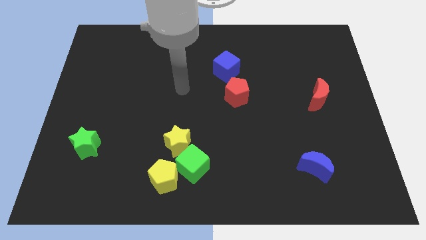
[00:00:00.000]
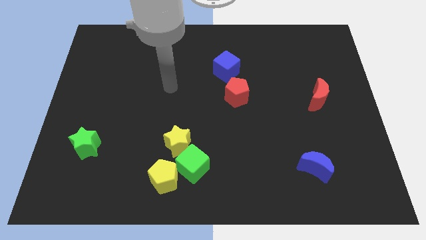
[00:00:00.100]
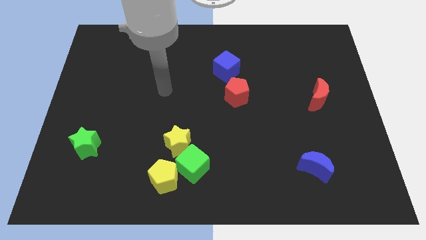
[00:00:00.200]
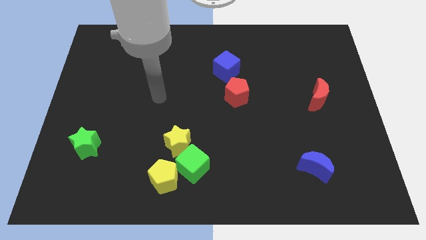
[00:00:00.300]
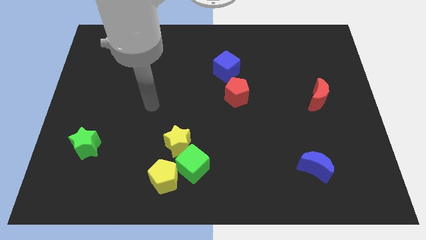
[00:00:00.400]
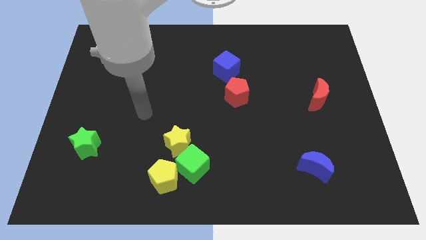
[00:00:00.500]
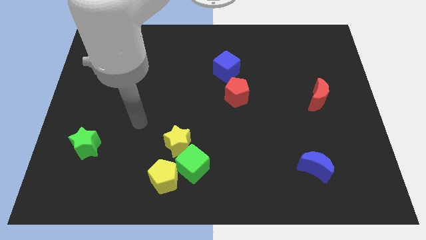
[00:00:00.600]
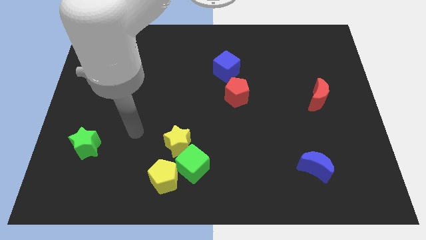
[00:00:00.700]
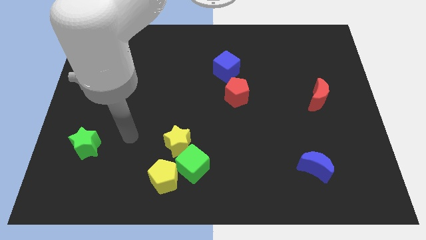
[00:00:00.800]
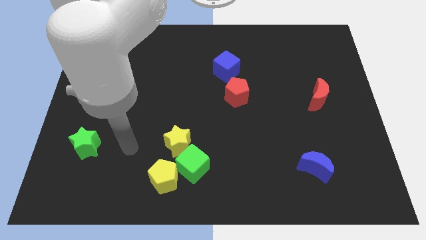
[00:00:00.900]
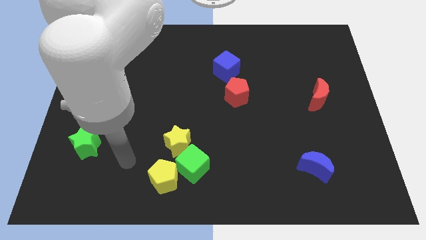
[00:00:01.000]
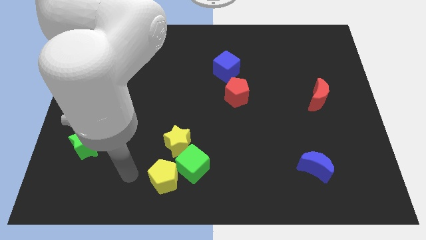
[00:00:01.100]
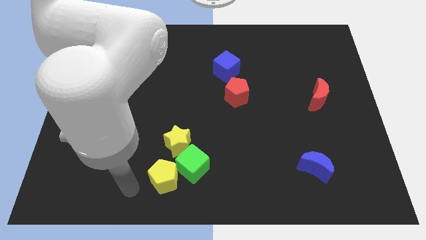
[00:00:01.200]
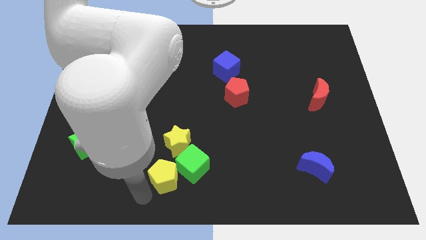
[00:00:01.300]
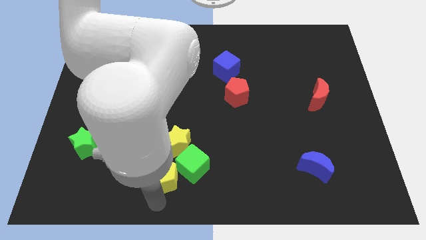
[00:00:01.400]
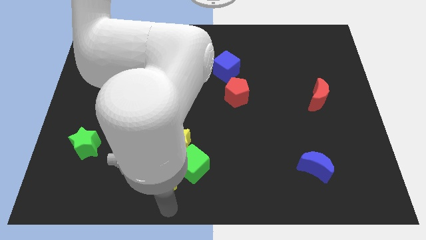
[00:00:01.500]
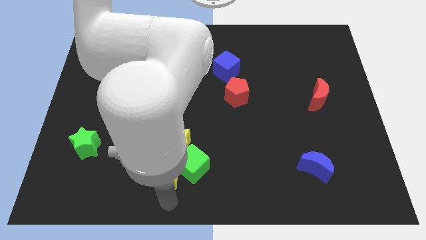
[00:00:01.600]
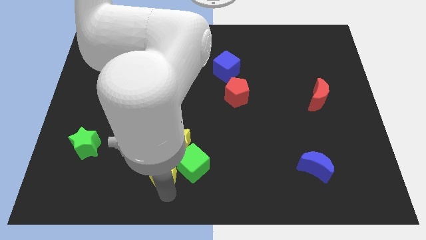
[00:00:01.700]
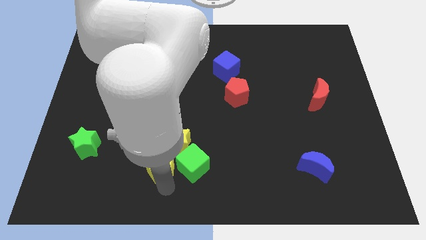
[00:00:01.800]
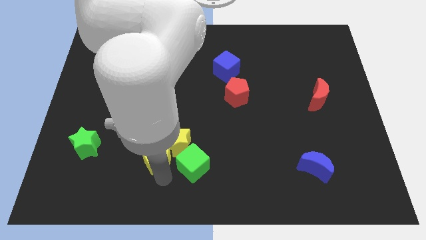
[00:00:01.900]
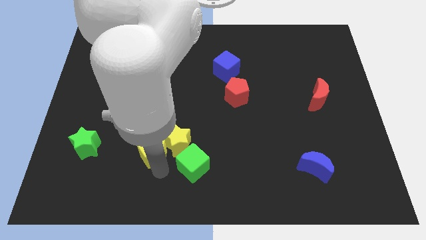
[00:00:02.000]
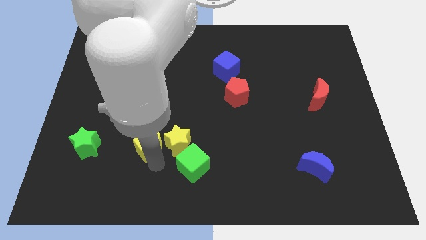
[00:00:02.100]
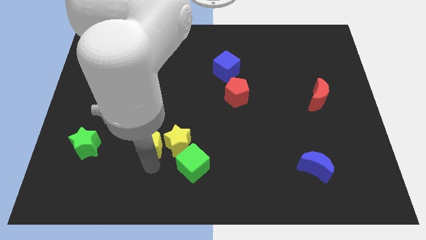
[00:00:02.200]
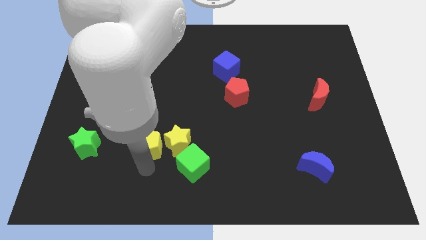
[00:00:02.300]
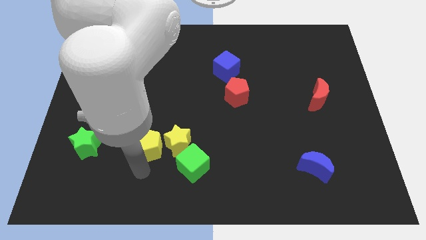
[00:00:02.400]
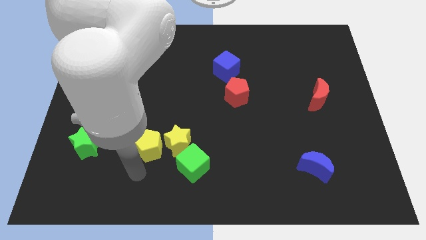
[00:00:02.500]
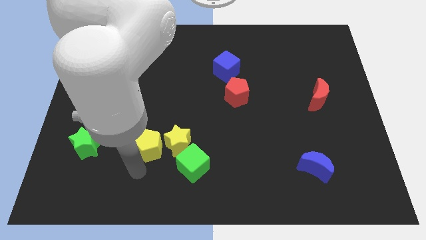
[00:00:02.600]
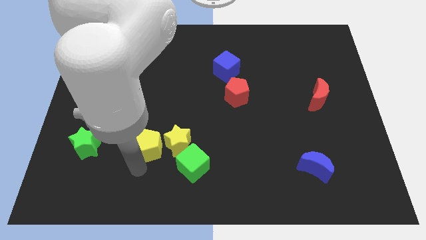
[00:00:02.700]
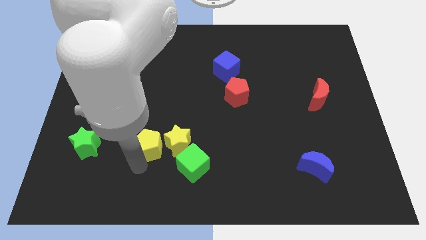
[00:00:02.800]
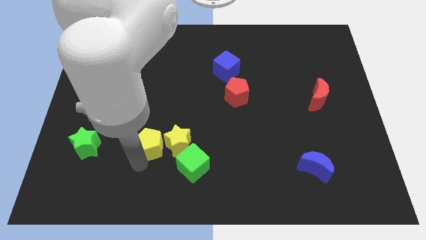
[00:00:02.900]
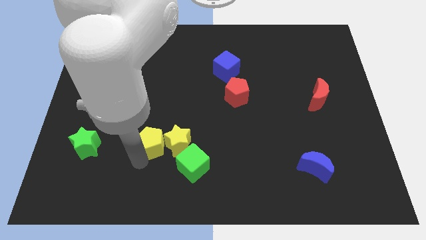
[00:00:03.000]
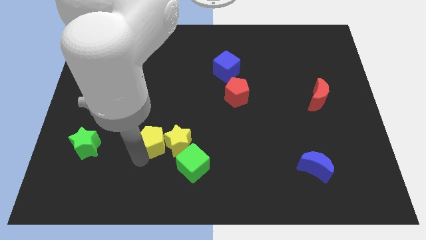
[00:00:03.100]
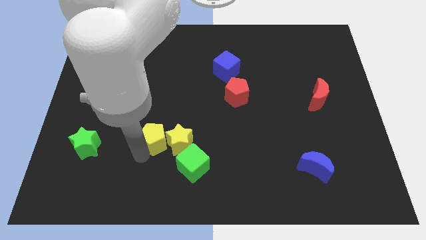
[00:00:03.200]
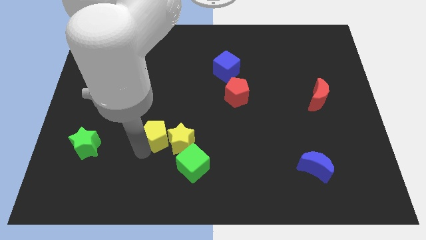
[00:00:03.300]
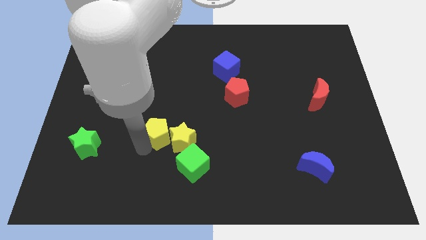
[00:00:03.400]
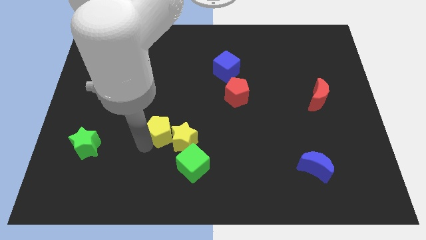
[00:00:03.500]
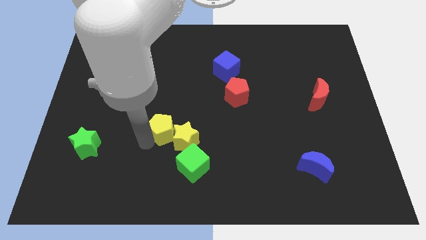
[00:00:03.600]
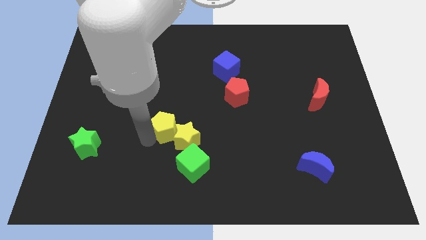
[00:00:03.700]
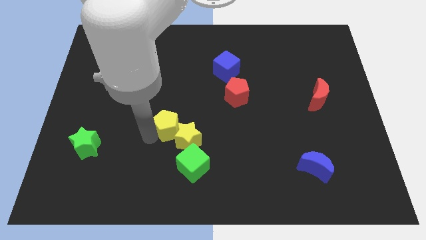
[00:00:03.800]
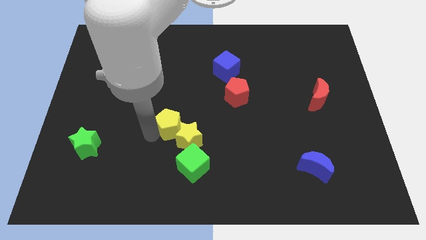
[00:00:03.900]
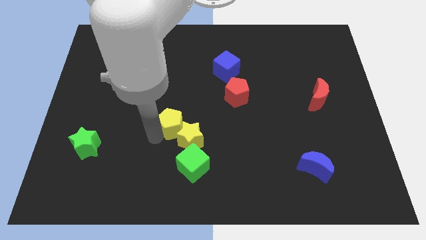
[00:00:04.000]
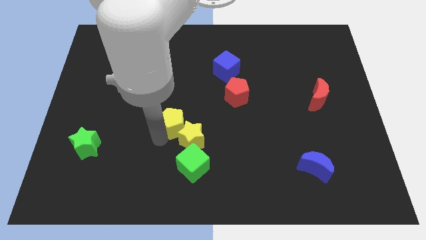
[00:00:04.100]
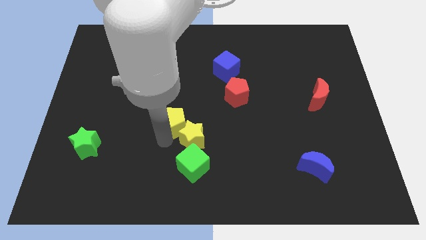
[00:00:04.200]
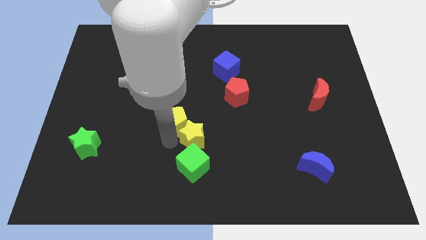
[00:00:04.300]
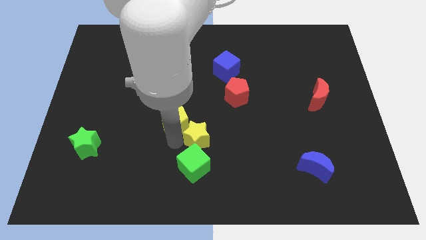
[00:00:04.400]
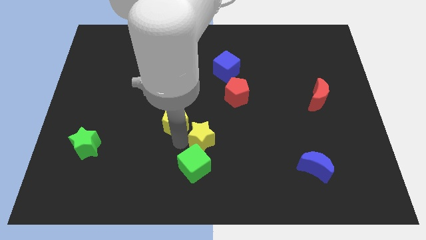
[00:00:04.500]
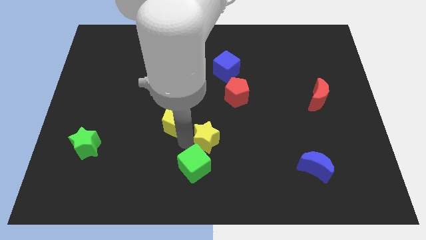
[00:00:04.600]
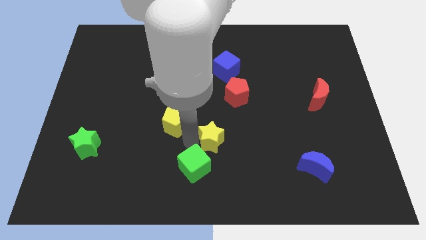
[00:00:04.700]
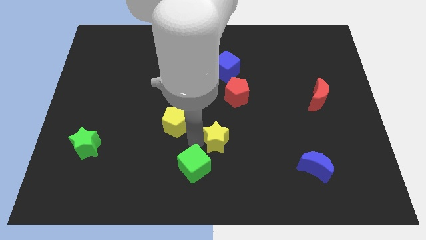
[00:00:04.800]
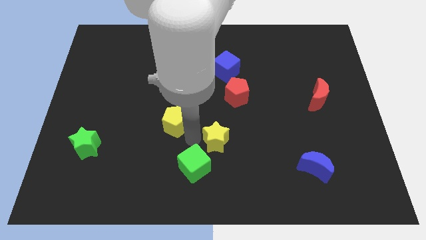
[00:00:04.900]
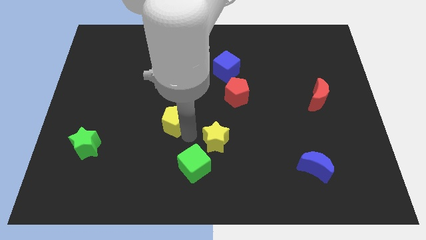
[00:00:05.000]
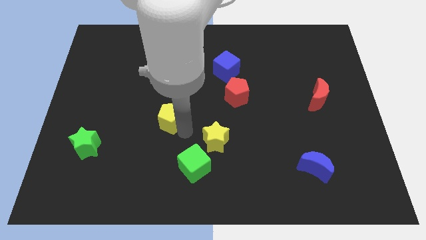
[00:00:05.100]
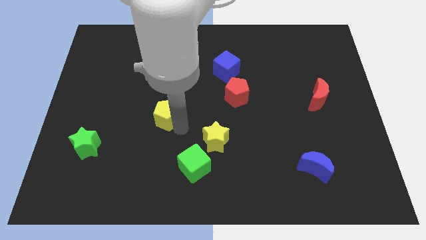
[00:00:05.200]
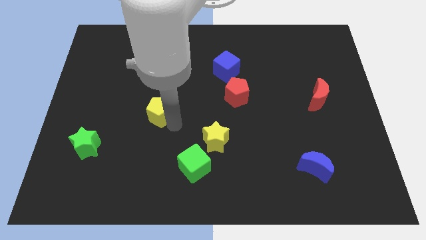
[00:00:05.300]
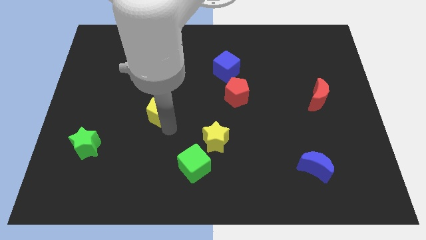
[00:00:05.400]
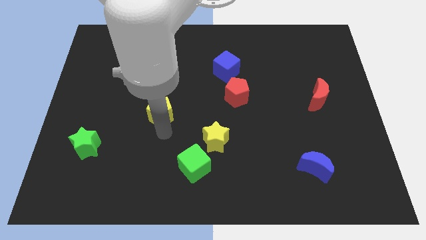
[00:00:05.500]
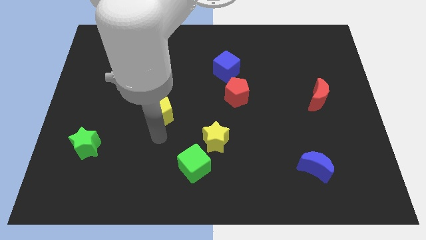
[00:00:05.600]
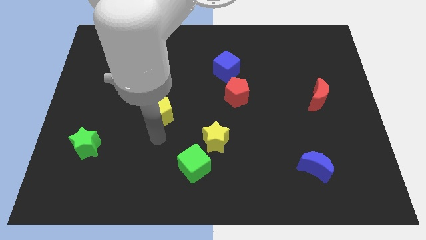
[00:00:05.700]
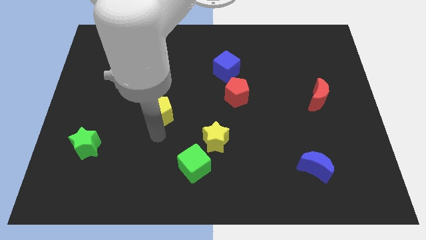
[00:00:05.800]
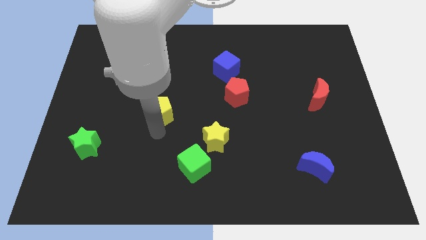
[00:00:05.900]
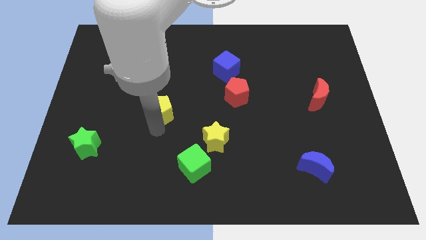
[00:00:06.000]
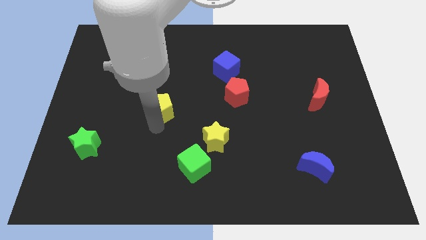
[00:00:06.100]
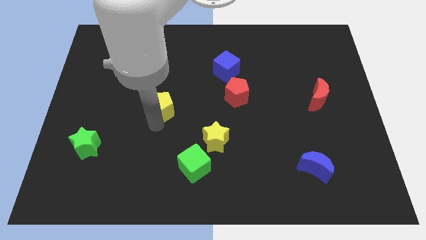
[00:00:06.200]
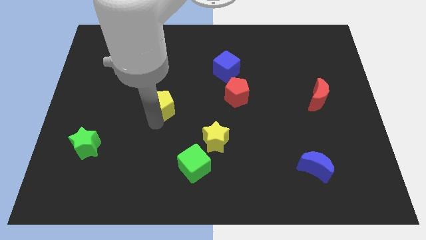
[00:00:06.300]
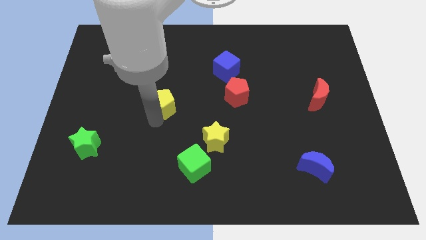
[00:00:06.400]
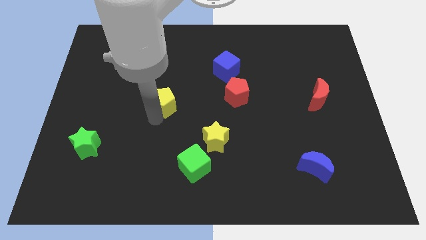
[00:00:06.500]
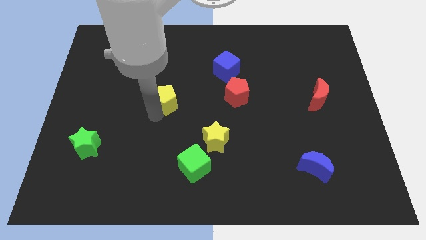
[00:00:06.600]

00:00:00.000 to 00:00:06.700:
slide the yellow pentagon upwards

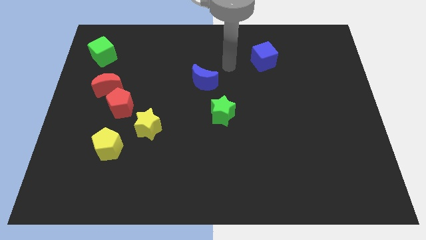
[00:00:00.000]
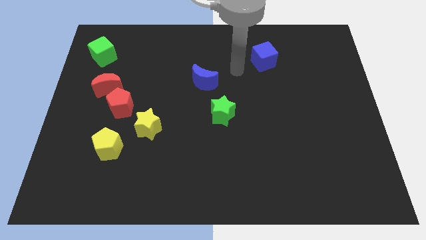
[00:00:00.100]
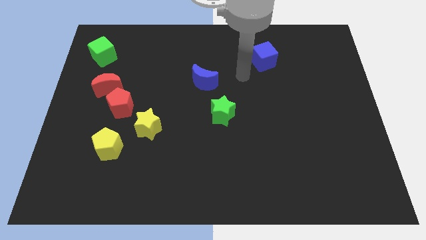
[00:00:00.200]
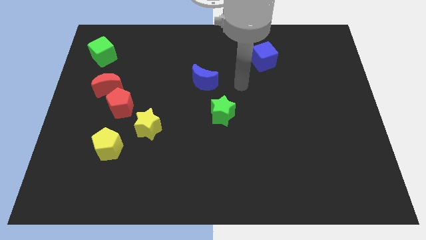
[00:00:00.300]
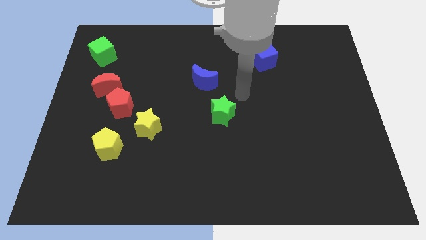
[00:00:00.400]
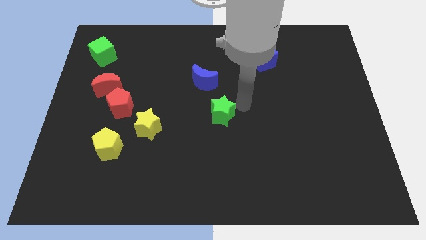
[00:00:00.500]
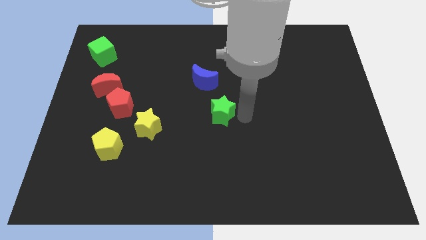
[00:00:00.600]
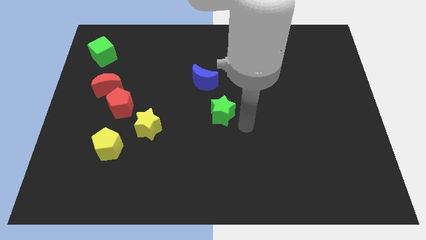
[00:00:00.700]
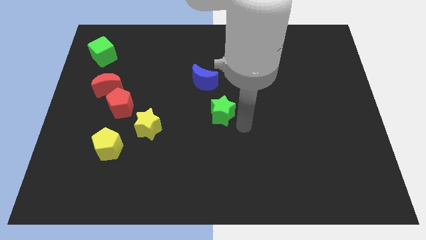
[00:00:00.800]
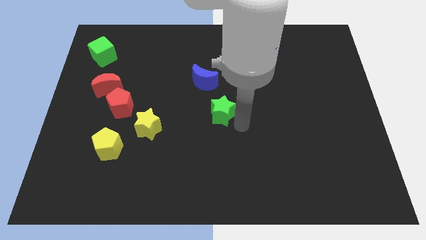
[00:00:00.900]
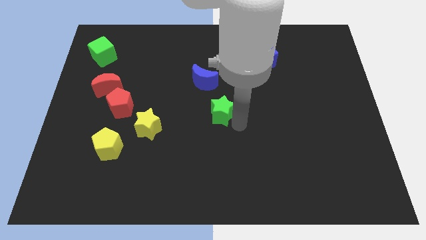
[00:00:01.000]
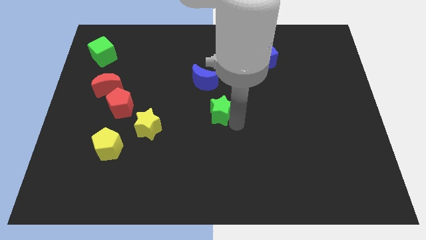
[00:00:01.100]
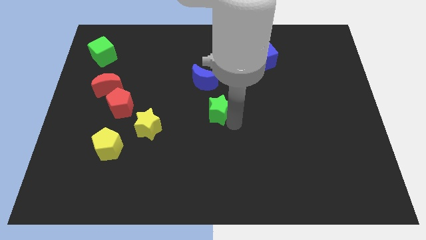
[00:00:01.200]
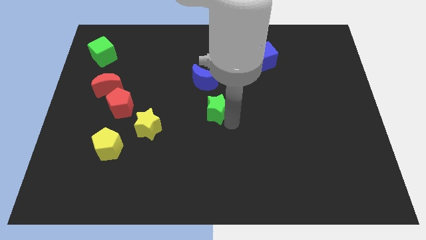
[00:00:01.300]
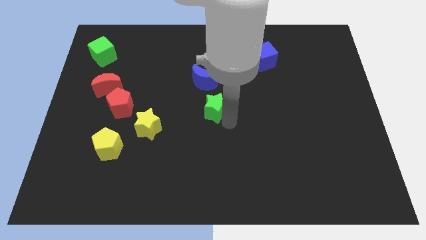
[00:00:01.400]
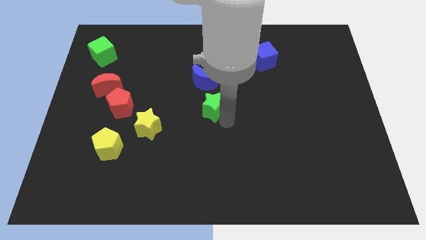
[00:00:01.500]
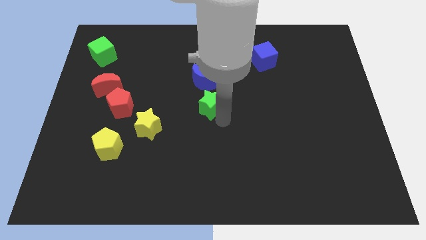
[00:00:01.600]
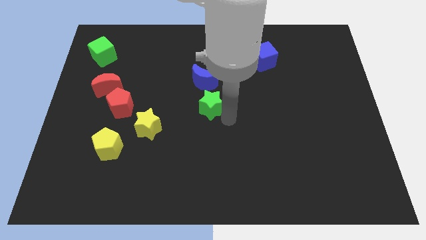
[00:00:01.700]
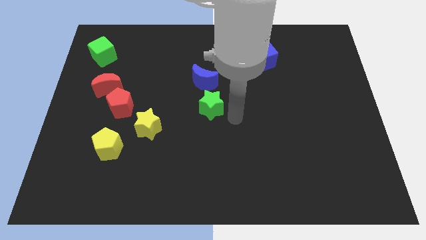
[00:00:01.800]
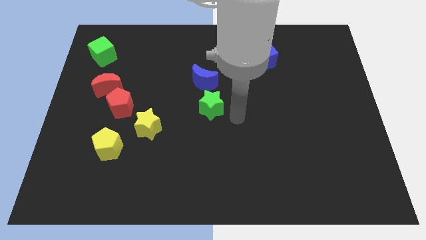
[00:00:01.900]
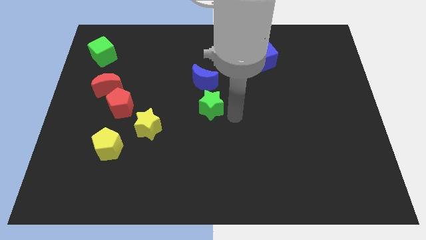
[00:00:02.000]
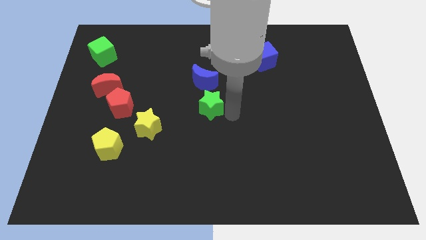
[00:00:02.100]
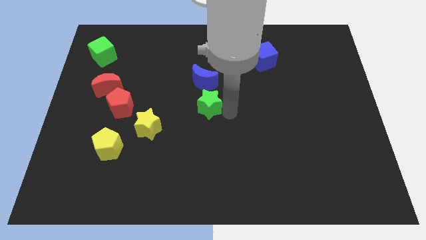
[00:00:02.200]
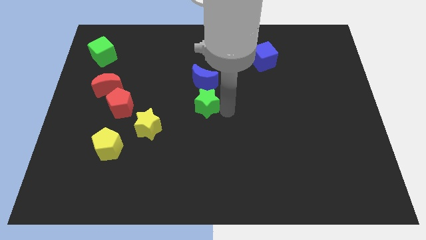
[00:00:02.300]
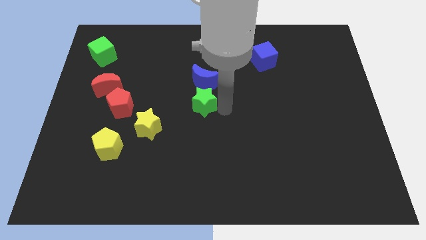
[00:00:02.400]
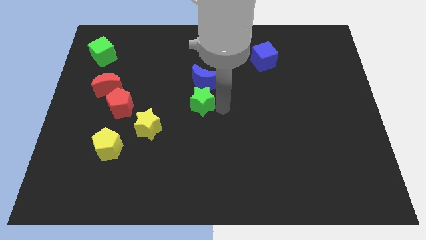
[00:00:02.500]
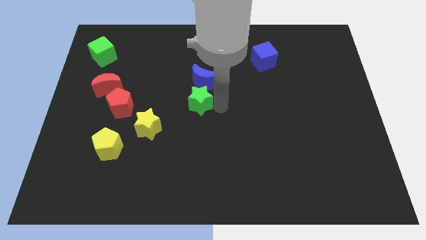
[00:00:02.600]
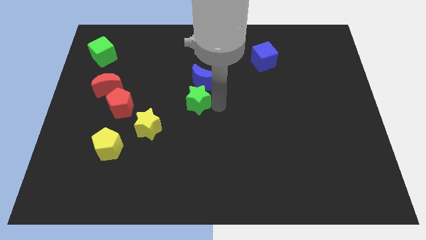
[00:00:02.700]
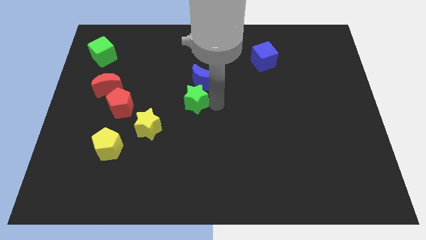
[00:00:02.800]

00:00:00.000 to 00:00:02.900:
move the green star somewhat up and left diagonally
